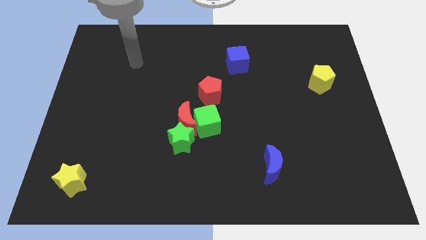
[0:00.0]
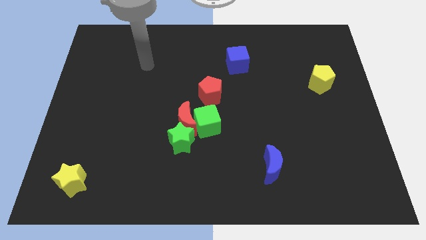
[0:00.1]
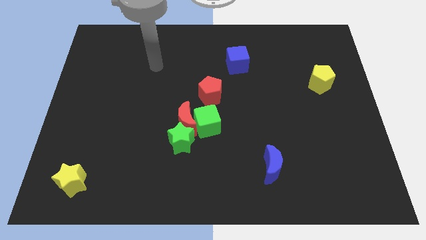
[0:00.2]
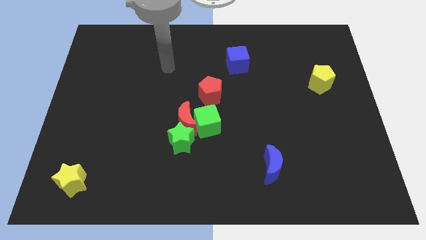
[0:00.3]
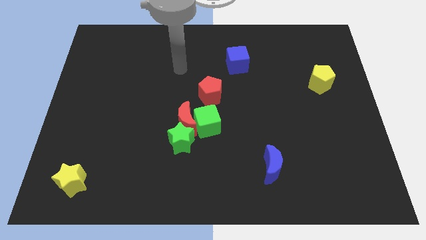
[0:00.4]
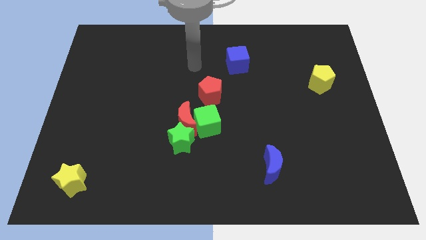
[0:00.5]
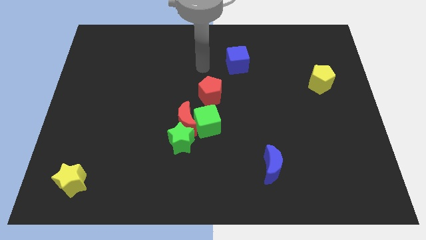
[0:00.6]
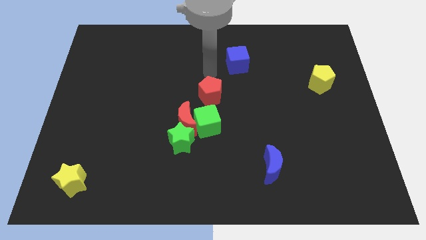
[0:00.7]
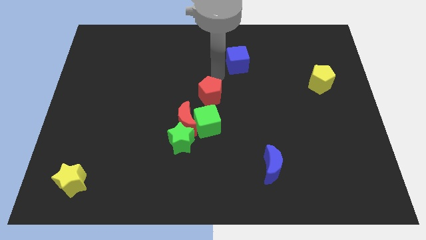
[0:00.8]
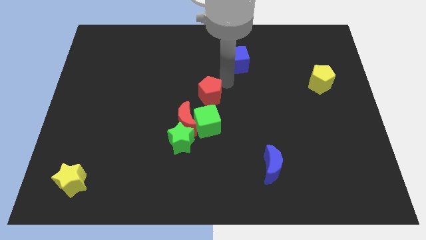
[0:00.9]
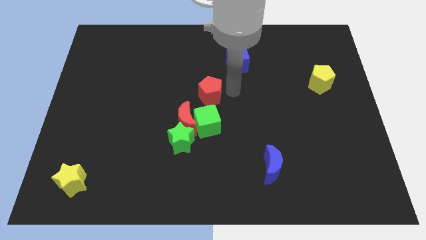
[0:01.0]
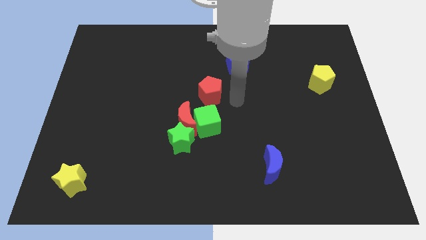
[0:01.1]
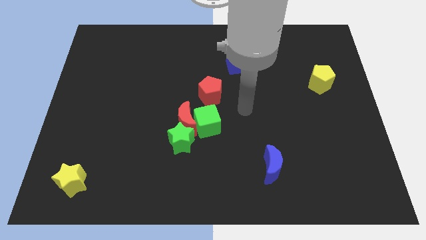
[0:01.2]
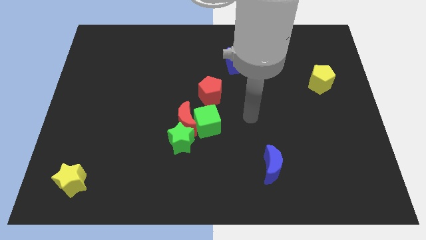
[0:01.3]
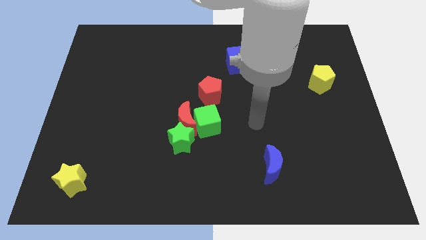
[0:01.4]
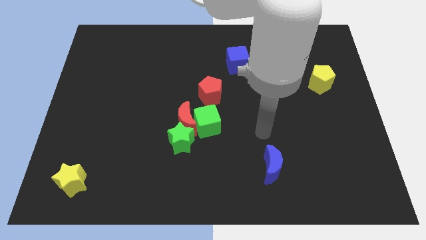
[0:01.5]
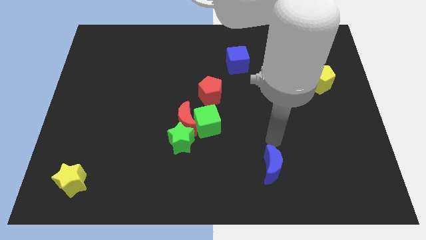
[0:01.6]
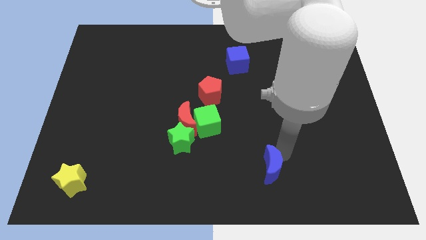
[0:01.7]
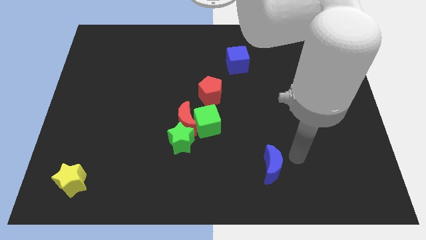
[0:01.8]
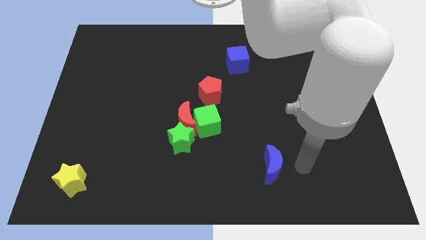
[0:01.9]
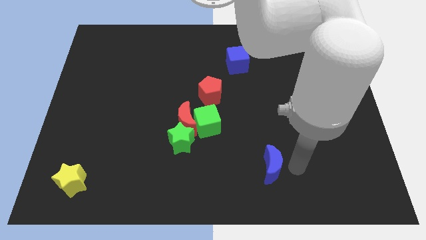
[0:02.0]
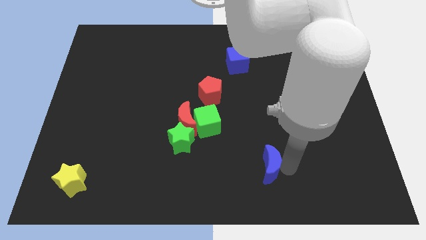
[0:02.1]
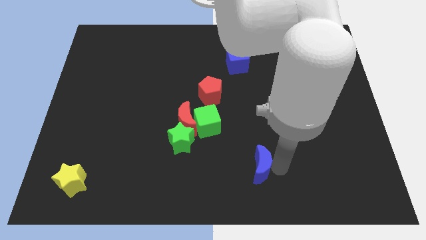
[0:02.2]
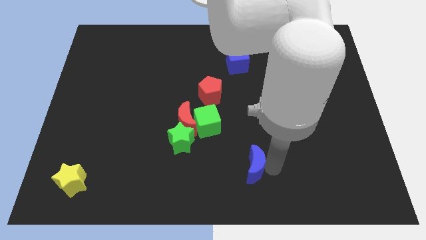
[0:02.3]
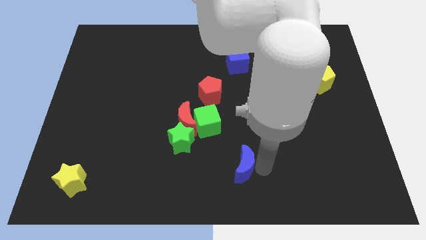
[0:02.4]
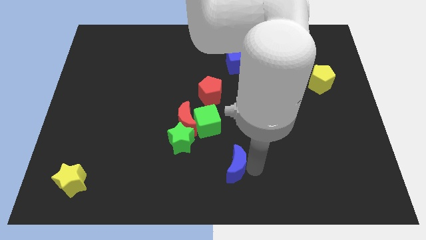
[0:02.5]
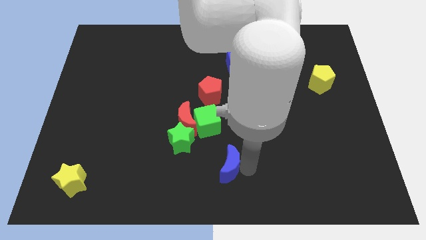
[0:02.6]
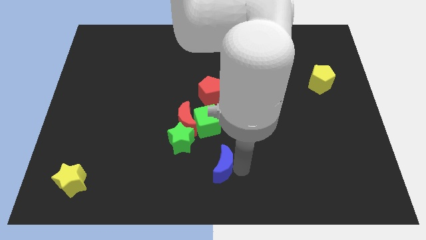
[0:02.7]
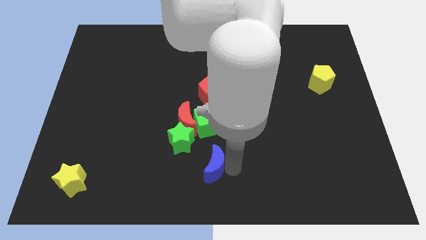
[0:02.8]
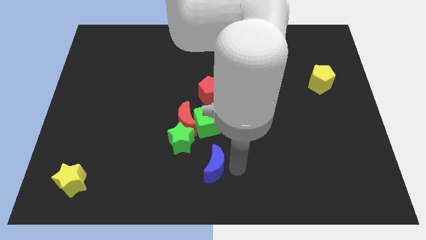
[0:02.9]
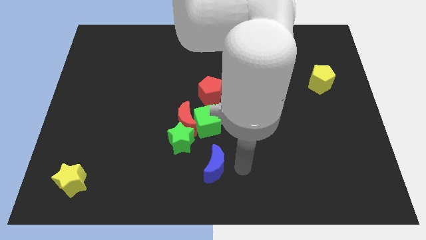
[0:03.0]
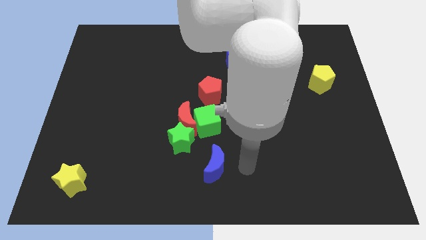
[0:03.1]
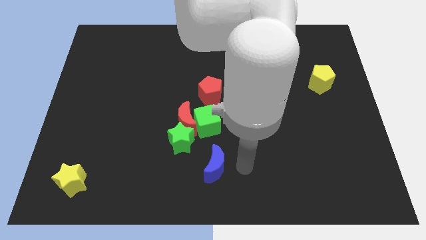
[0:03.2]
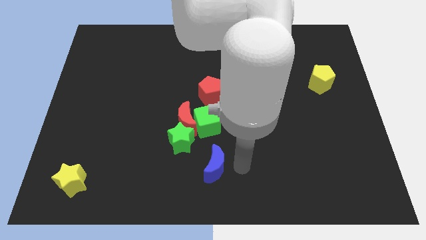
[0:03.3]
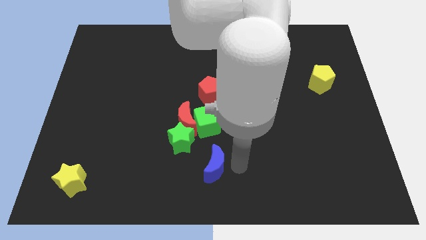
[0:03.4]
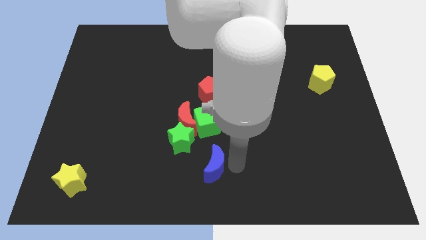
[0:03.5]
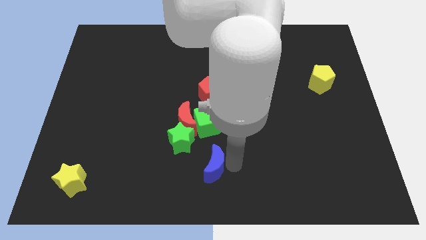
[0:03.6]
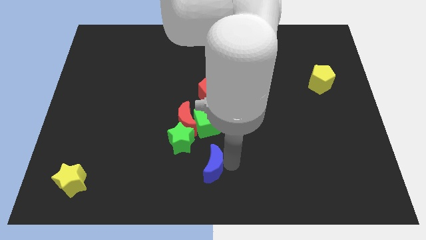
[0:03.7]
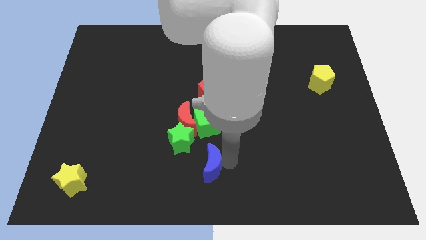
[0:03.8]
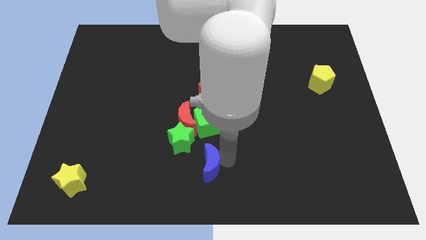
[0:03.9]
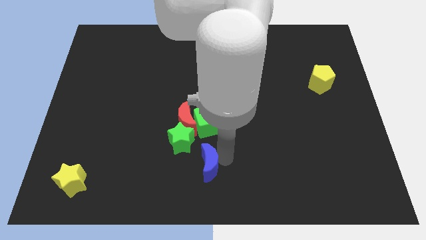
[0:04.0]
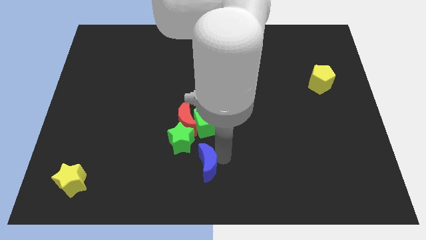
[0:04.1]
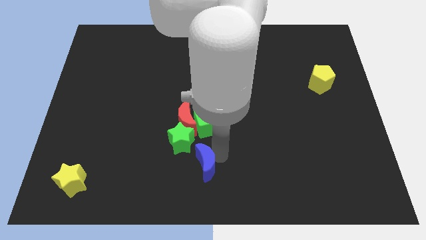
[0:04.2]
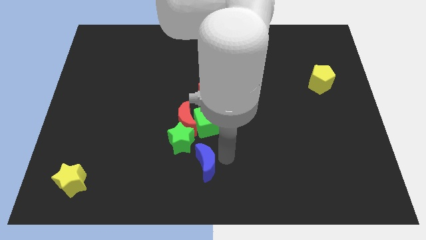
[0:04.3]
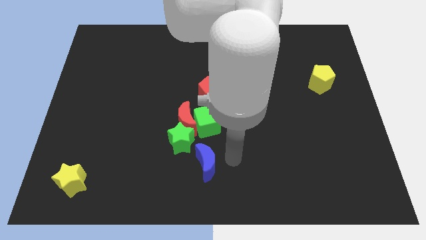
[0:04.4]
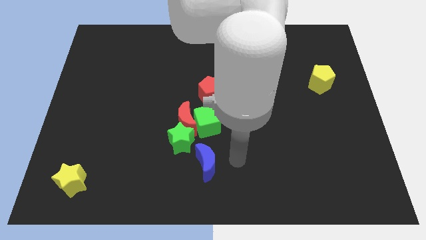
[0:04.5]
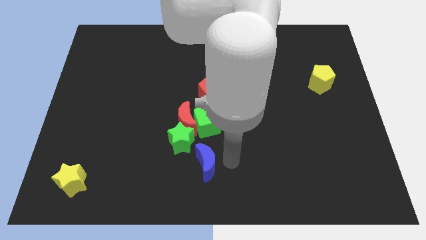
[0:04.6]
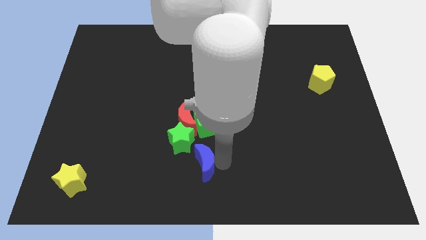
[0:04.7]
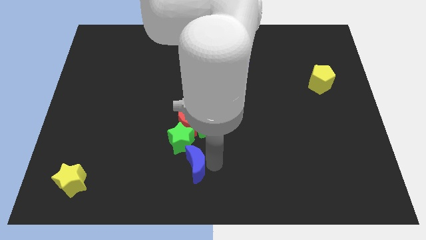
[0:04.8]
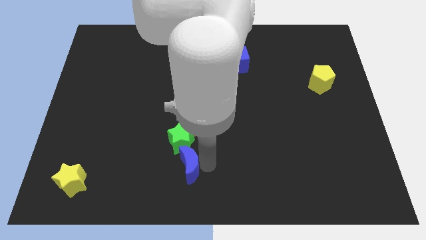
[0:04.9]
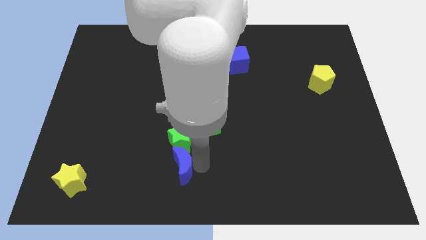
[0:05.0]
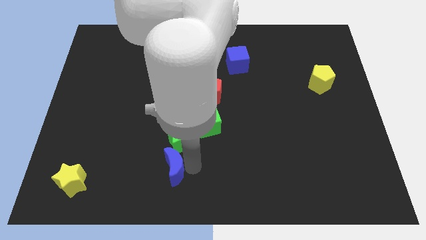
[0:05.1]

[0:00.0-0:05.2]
push the blue moon left

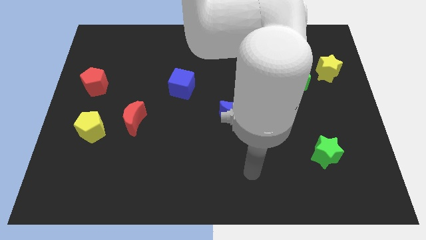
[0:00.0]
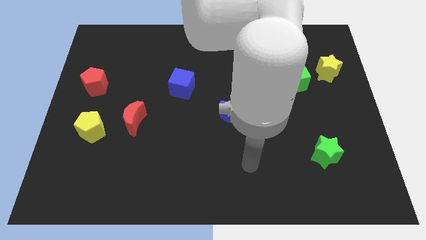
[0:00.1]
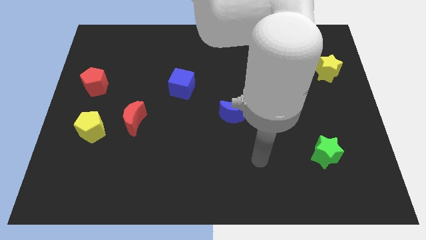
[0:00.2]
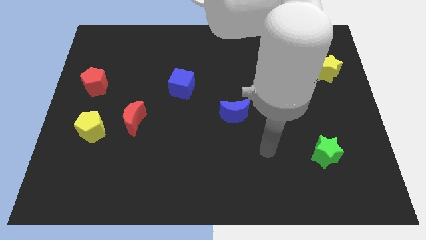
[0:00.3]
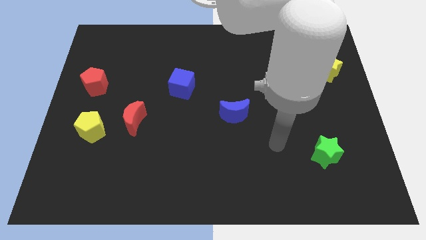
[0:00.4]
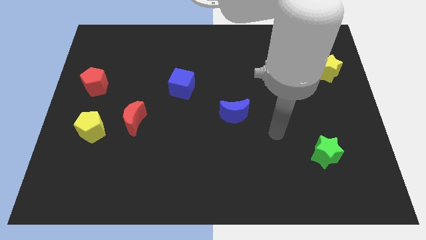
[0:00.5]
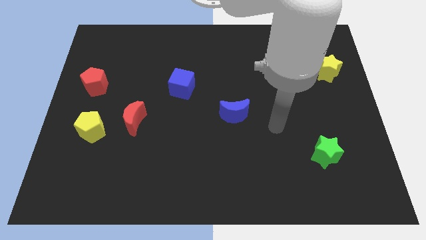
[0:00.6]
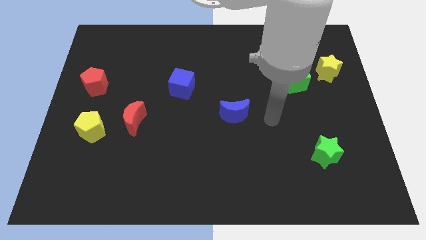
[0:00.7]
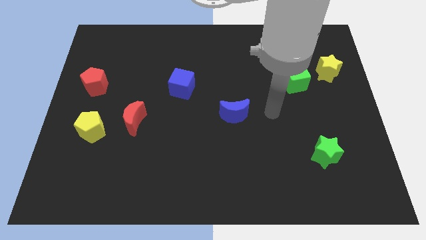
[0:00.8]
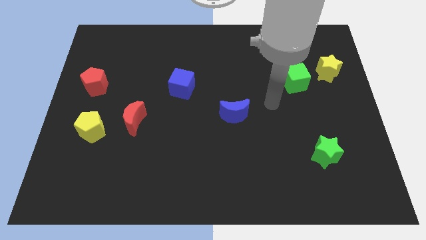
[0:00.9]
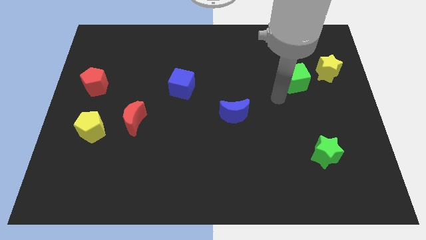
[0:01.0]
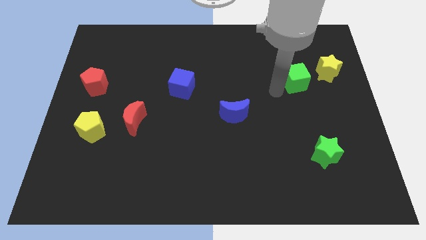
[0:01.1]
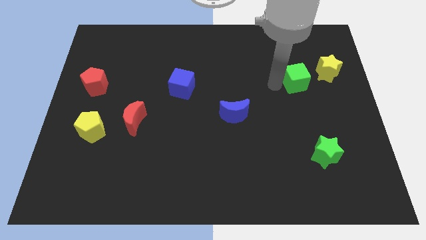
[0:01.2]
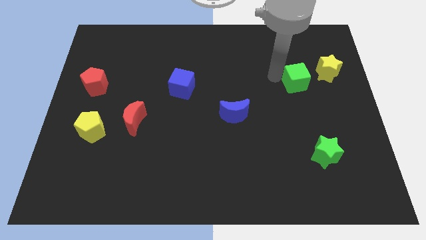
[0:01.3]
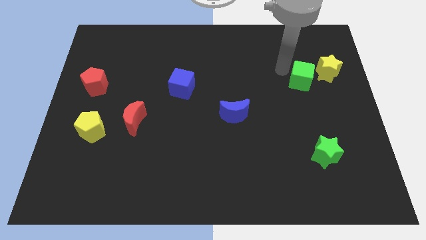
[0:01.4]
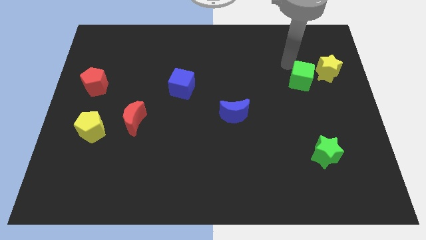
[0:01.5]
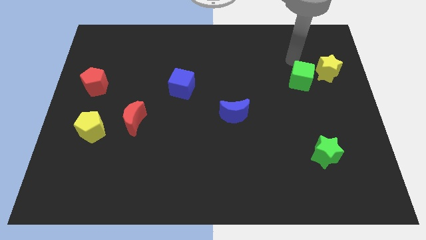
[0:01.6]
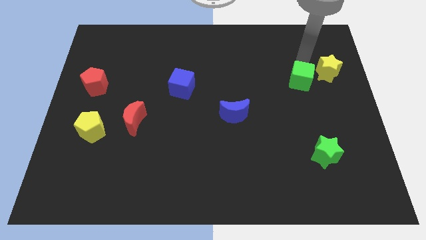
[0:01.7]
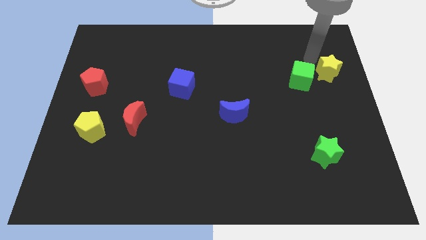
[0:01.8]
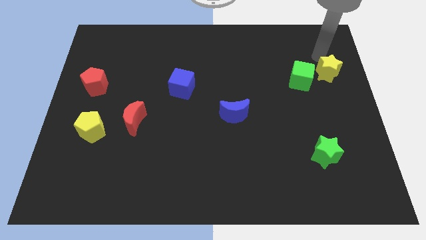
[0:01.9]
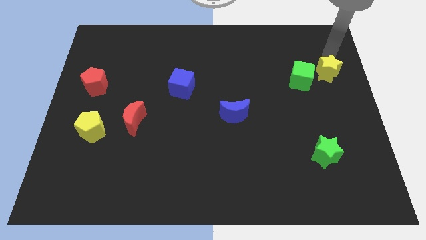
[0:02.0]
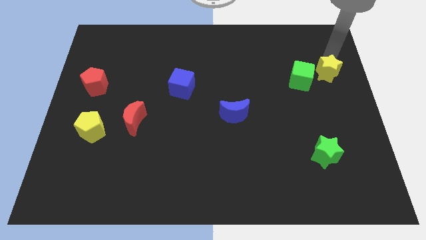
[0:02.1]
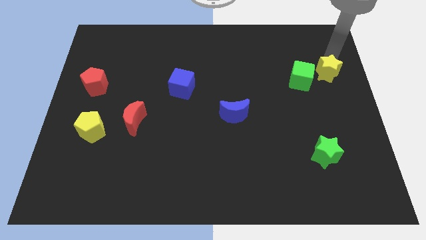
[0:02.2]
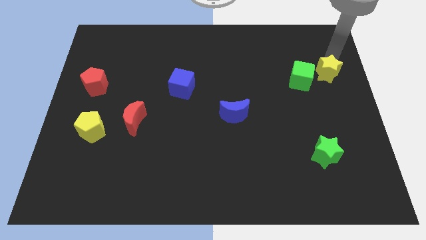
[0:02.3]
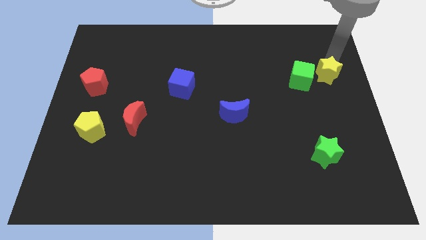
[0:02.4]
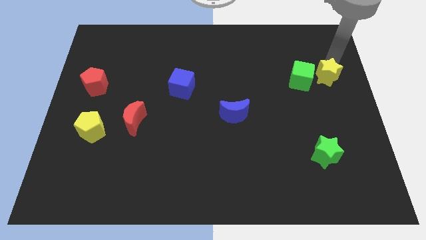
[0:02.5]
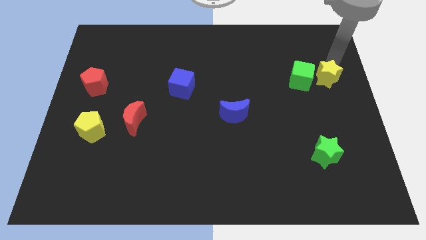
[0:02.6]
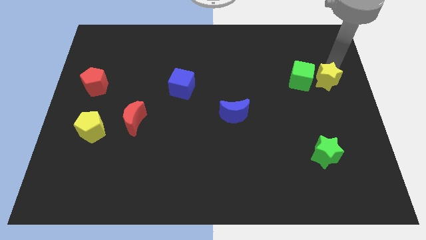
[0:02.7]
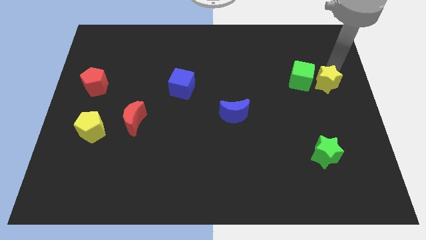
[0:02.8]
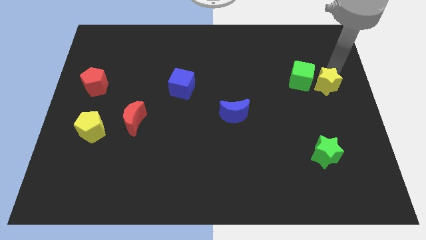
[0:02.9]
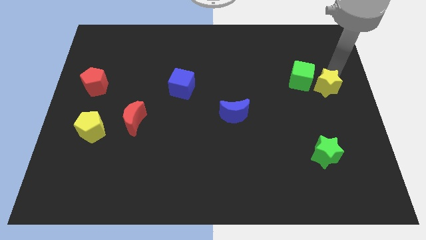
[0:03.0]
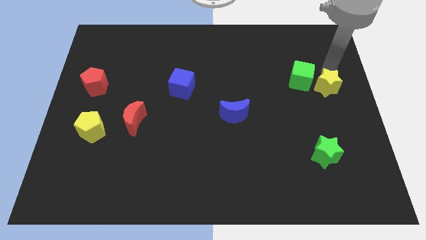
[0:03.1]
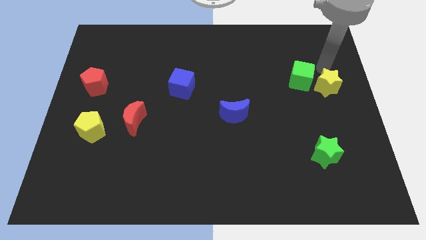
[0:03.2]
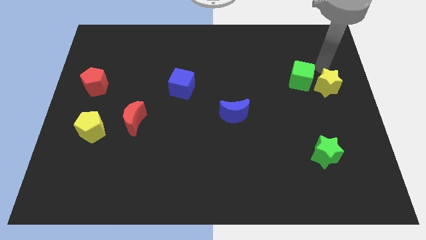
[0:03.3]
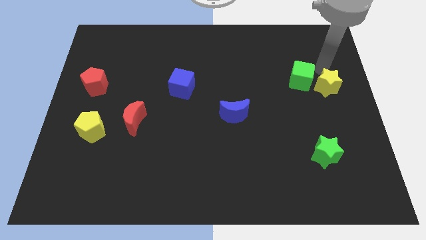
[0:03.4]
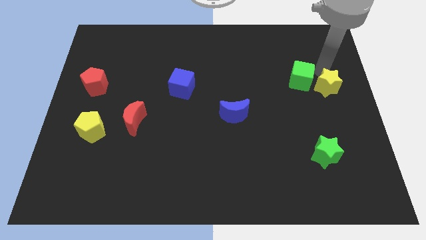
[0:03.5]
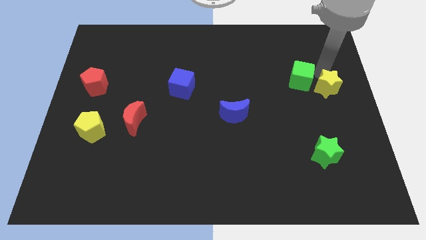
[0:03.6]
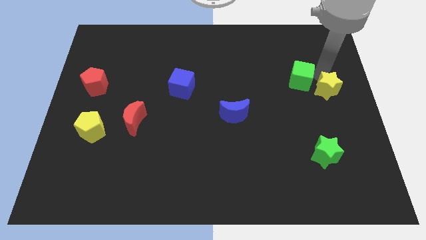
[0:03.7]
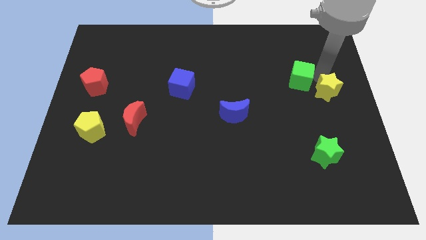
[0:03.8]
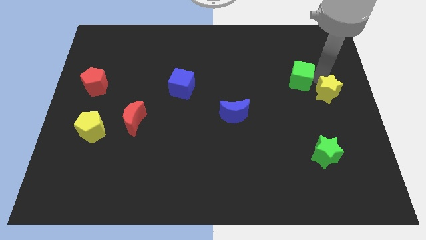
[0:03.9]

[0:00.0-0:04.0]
slightly slide the yellow star down
